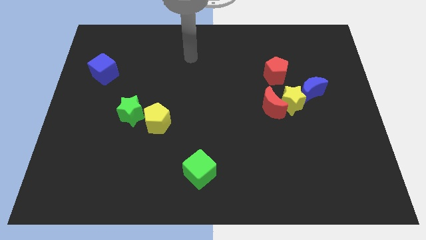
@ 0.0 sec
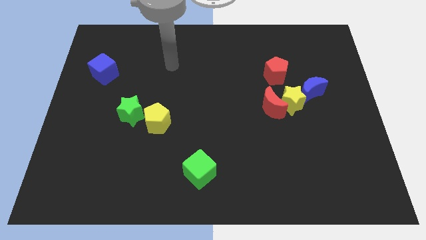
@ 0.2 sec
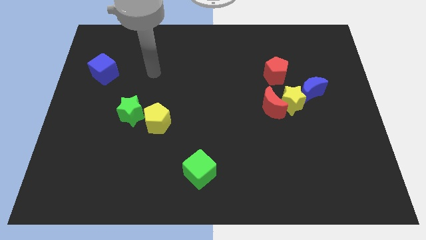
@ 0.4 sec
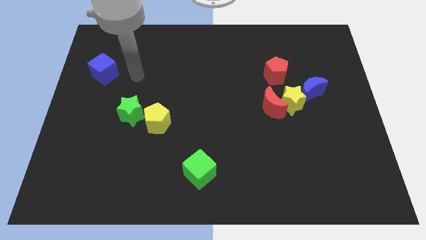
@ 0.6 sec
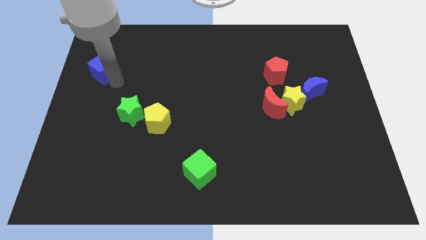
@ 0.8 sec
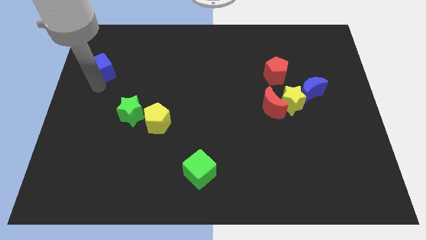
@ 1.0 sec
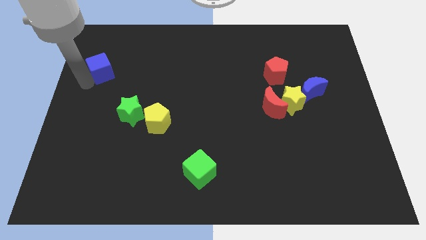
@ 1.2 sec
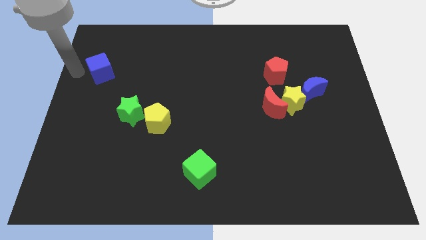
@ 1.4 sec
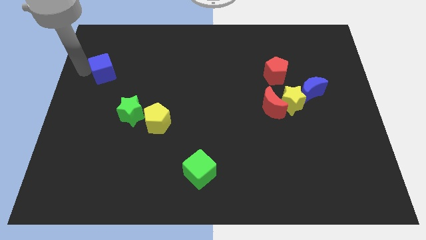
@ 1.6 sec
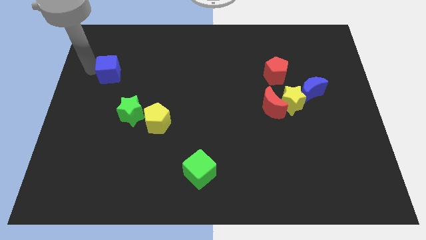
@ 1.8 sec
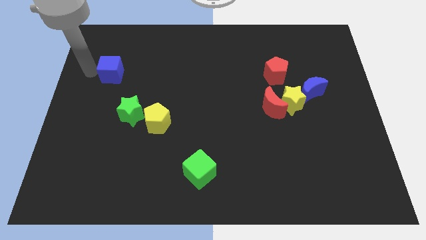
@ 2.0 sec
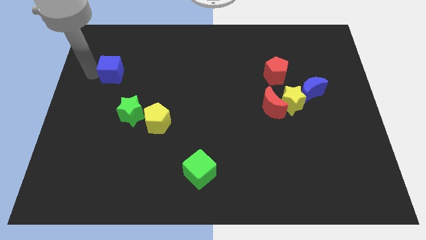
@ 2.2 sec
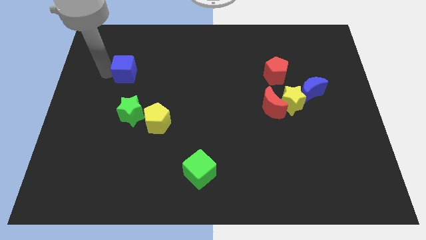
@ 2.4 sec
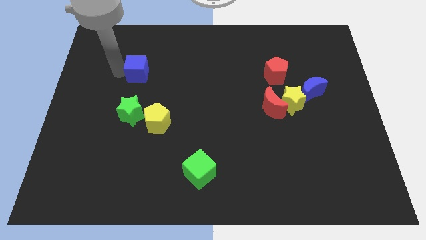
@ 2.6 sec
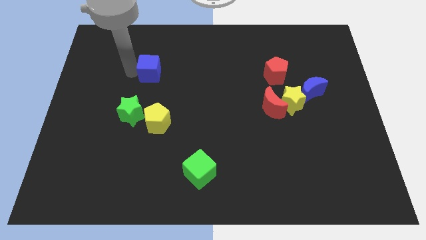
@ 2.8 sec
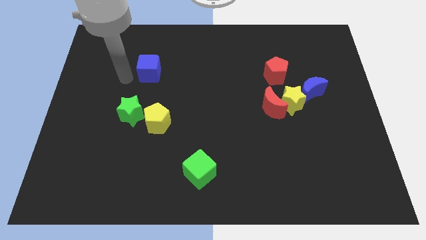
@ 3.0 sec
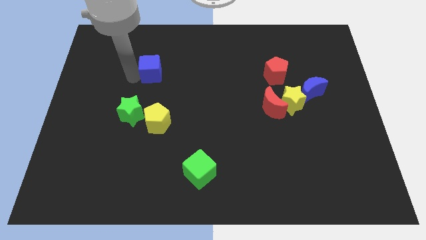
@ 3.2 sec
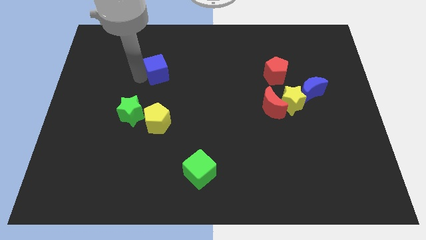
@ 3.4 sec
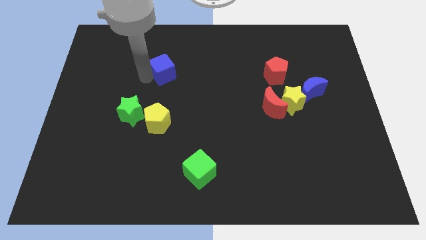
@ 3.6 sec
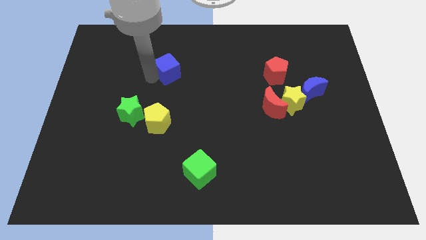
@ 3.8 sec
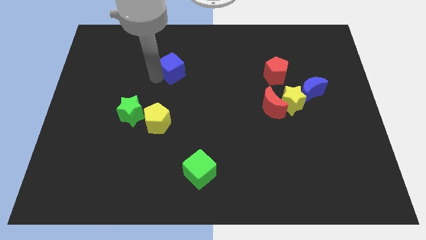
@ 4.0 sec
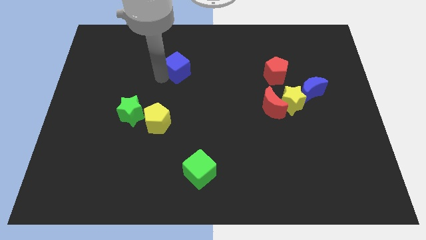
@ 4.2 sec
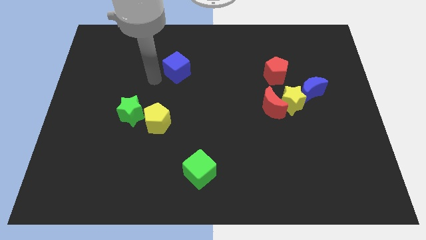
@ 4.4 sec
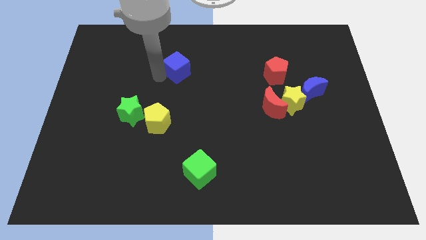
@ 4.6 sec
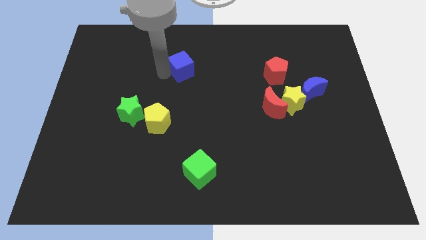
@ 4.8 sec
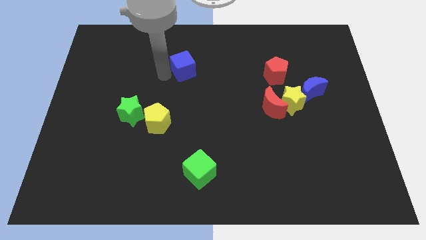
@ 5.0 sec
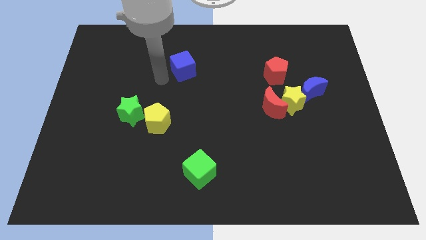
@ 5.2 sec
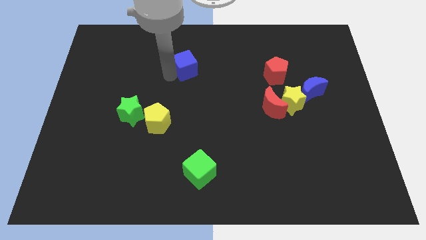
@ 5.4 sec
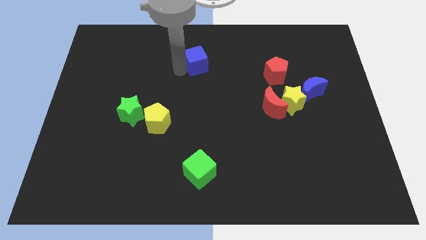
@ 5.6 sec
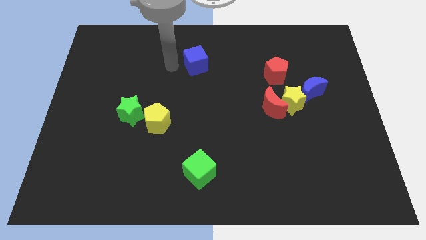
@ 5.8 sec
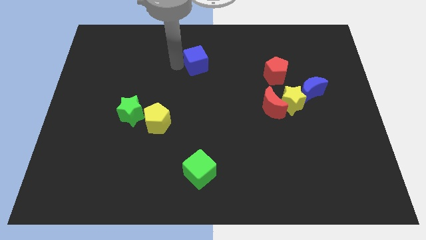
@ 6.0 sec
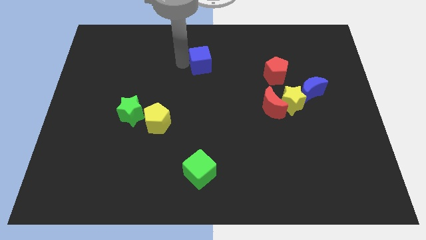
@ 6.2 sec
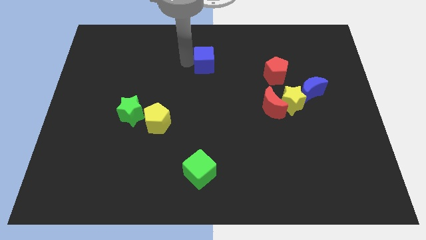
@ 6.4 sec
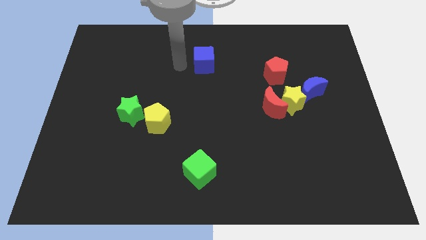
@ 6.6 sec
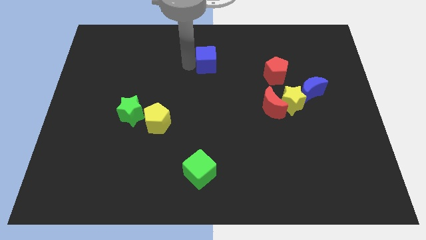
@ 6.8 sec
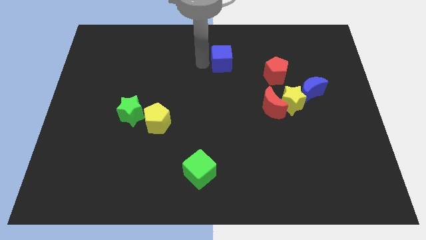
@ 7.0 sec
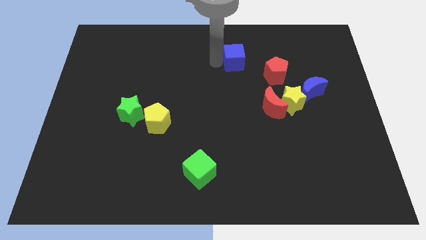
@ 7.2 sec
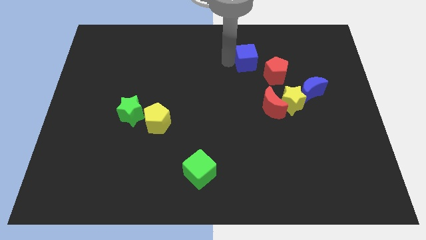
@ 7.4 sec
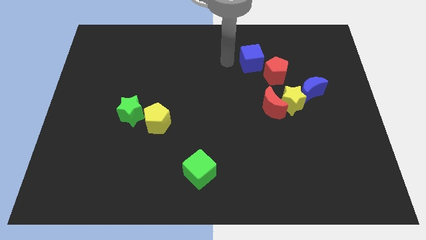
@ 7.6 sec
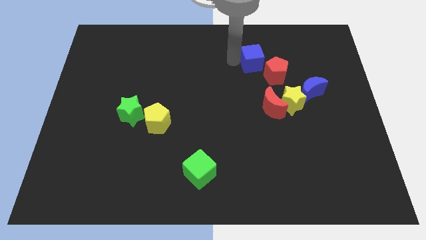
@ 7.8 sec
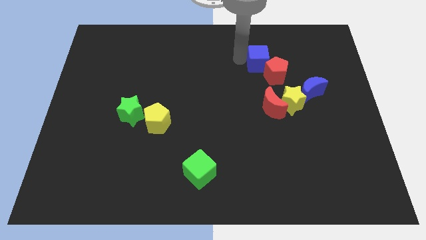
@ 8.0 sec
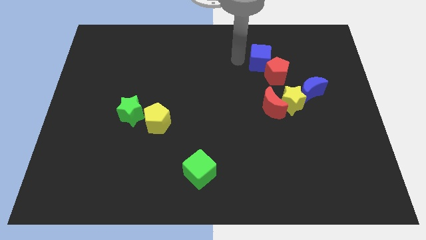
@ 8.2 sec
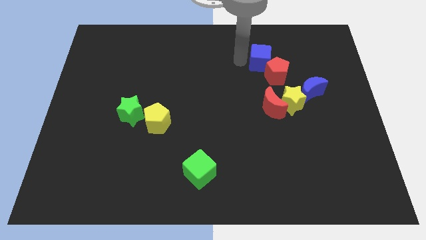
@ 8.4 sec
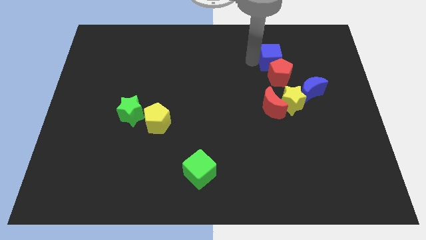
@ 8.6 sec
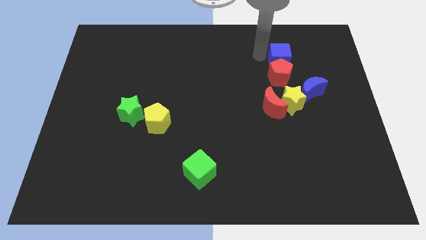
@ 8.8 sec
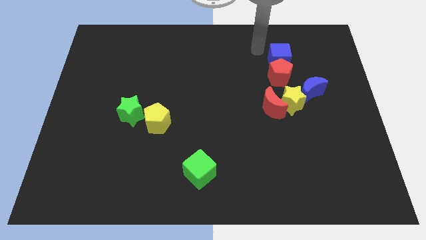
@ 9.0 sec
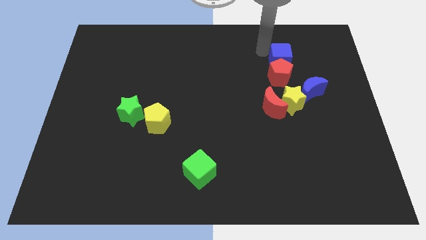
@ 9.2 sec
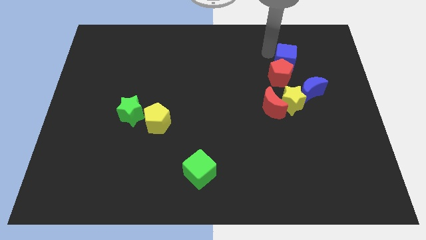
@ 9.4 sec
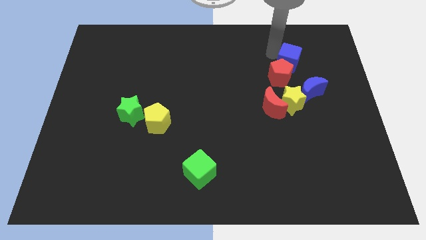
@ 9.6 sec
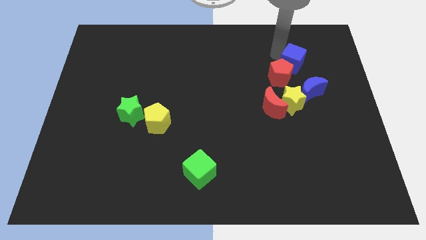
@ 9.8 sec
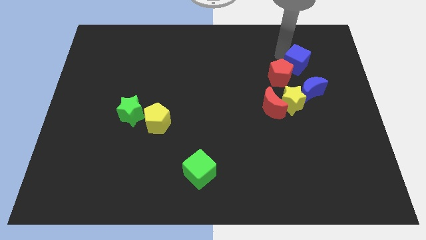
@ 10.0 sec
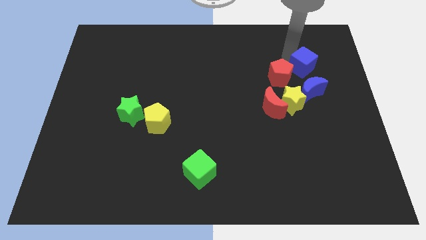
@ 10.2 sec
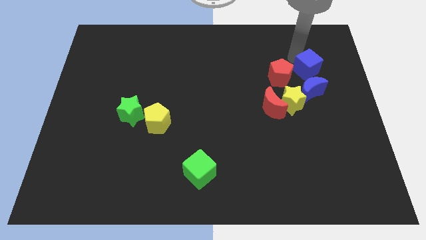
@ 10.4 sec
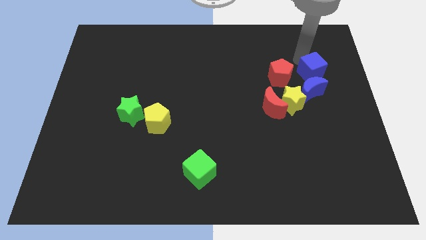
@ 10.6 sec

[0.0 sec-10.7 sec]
slide the blue cube to the top right side of the yellow star

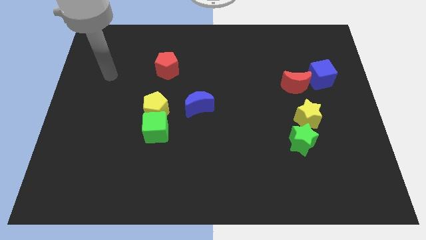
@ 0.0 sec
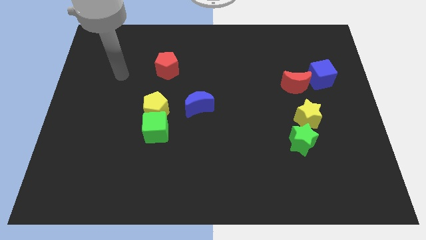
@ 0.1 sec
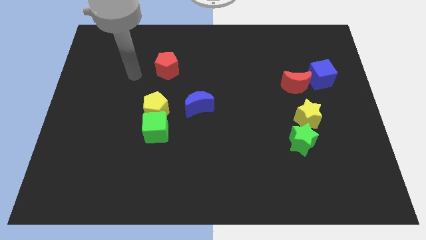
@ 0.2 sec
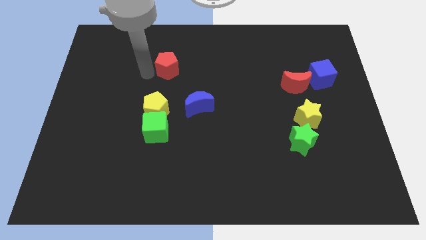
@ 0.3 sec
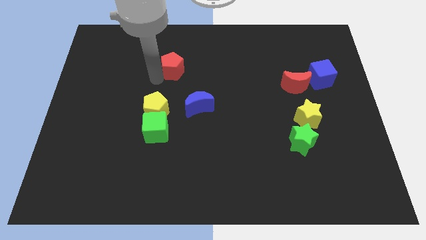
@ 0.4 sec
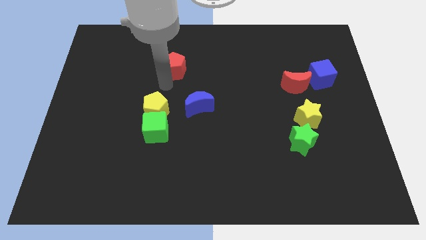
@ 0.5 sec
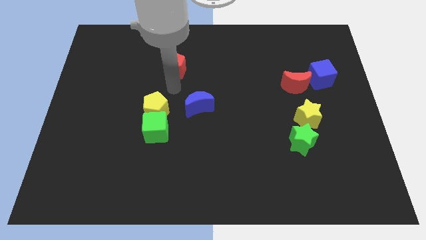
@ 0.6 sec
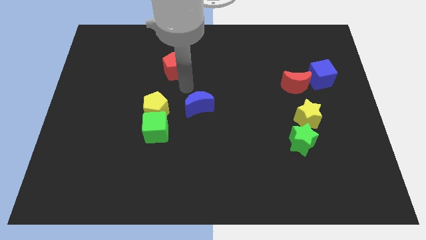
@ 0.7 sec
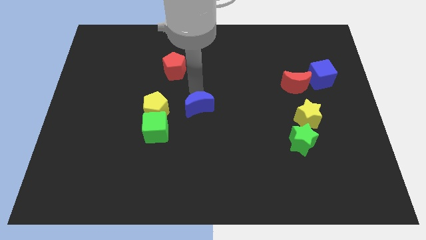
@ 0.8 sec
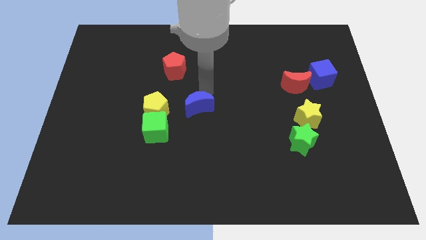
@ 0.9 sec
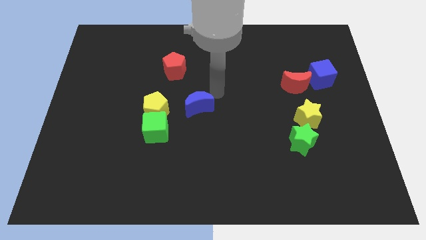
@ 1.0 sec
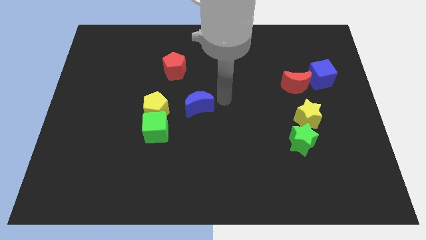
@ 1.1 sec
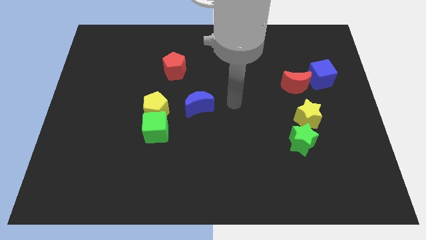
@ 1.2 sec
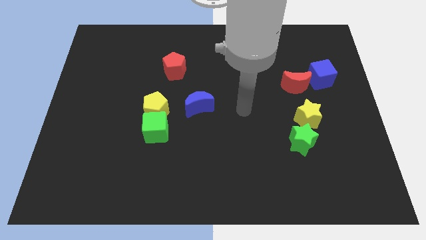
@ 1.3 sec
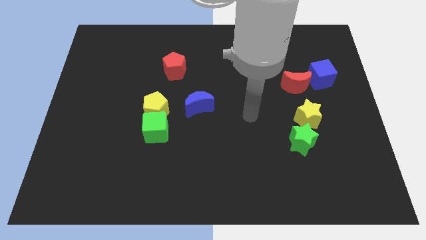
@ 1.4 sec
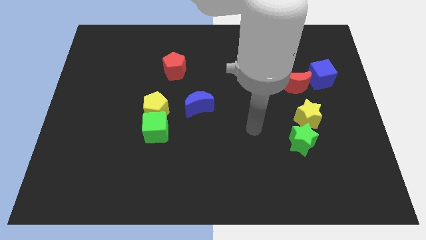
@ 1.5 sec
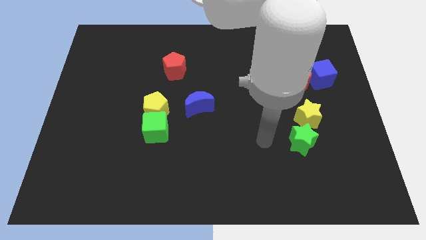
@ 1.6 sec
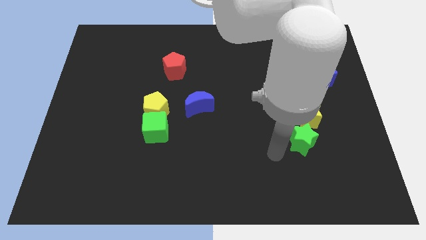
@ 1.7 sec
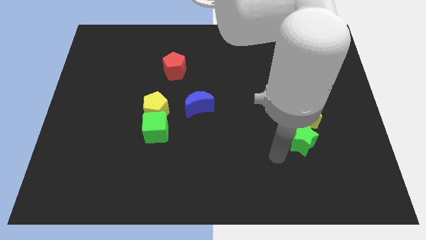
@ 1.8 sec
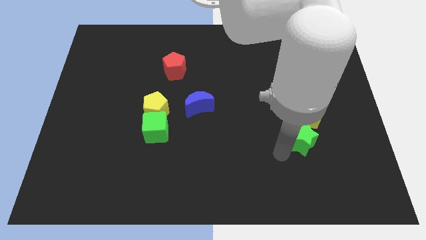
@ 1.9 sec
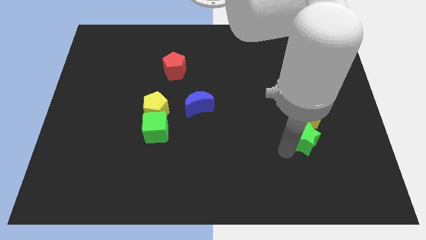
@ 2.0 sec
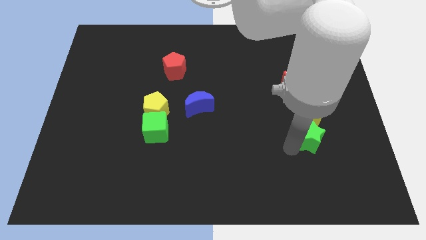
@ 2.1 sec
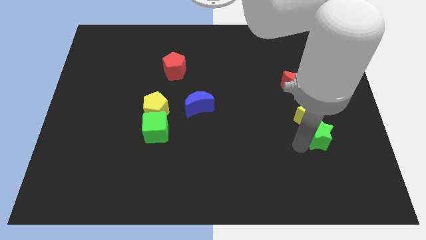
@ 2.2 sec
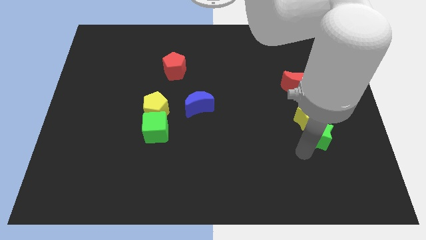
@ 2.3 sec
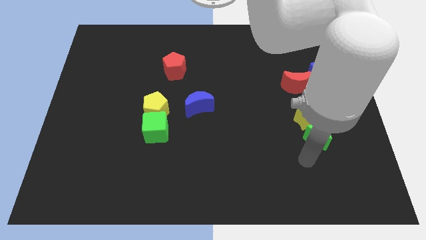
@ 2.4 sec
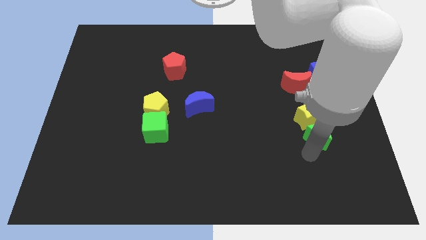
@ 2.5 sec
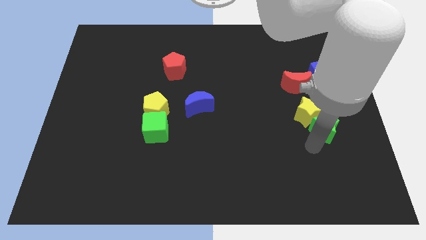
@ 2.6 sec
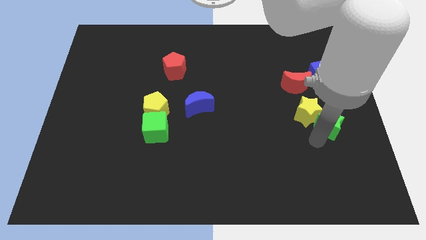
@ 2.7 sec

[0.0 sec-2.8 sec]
put the green star to the bottom of the blue cube
